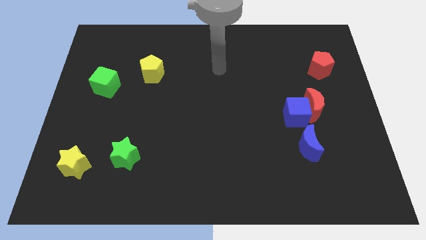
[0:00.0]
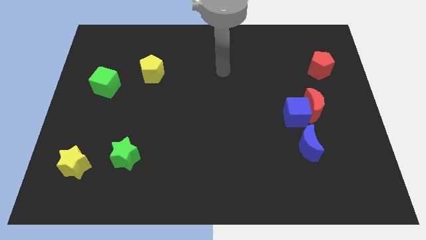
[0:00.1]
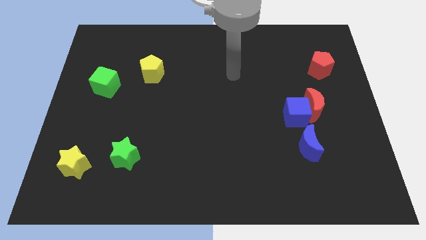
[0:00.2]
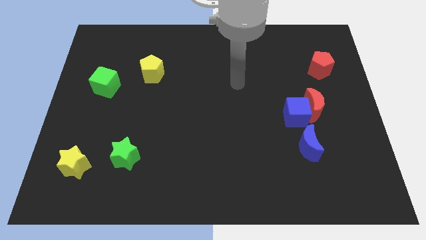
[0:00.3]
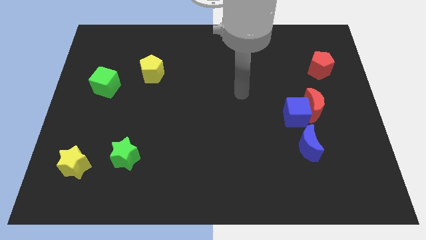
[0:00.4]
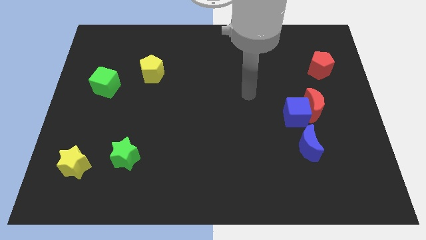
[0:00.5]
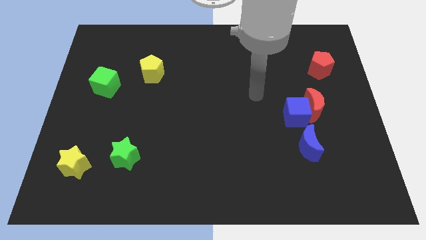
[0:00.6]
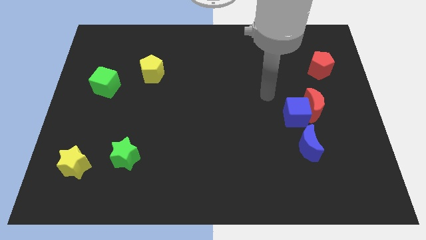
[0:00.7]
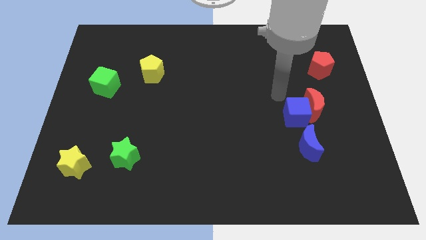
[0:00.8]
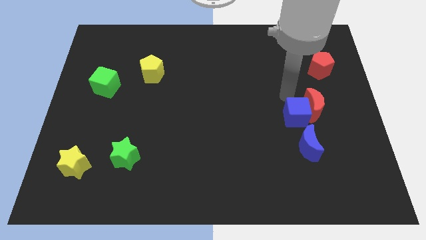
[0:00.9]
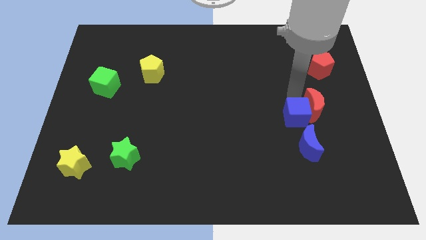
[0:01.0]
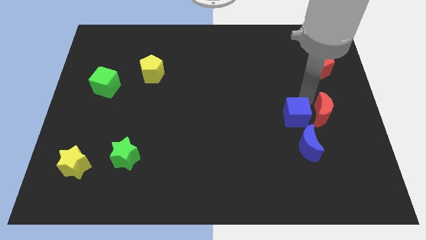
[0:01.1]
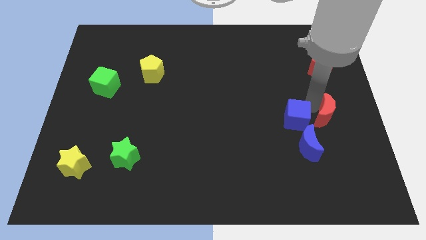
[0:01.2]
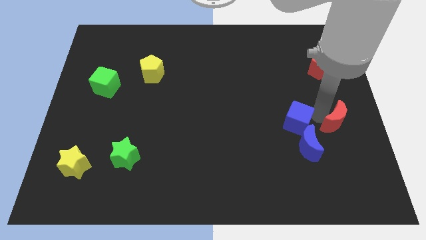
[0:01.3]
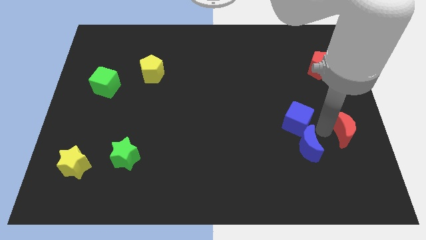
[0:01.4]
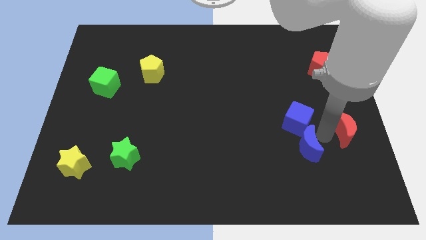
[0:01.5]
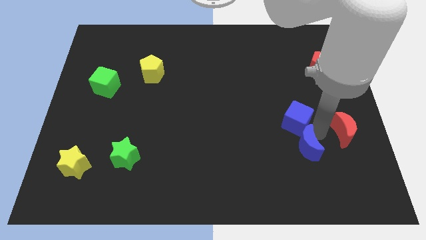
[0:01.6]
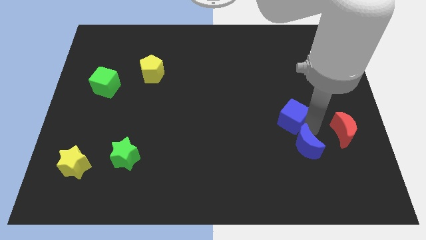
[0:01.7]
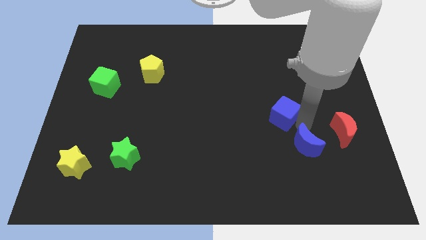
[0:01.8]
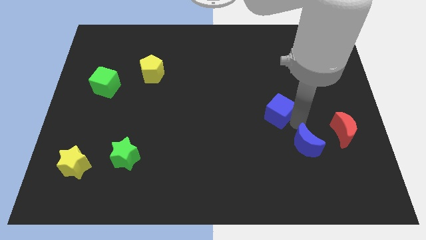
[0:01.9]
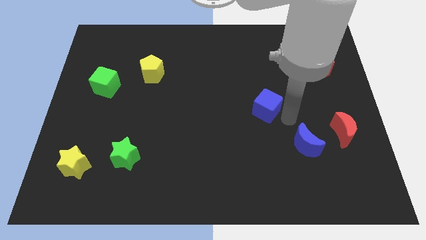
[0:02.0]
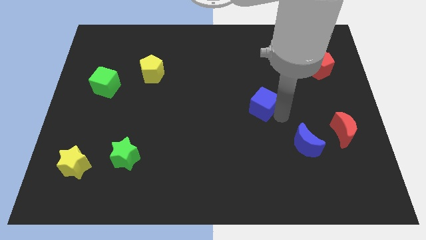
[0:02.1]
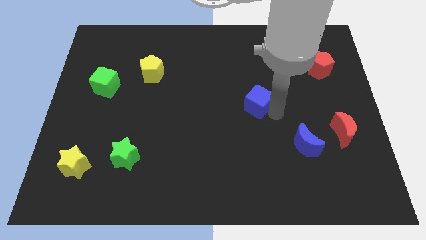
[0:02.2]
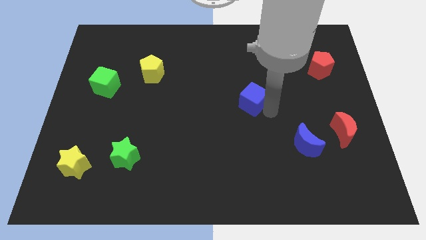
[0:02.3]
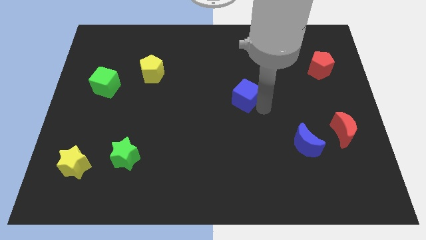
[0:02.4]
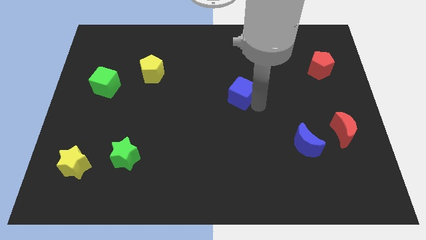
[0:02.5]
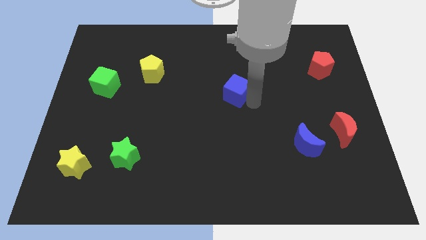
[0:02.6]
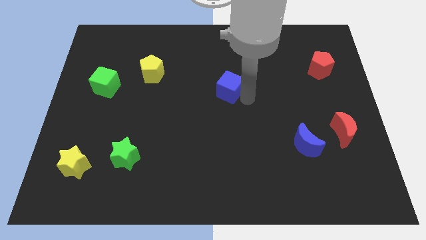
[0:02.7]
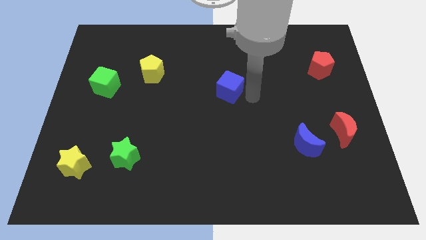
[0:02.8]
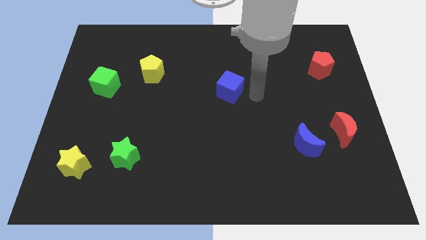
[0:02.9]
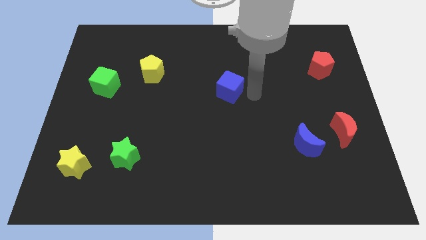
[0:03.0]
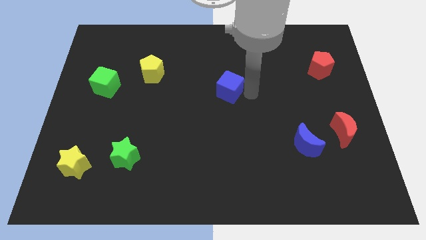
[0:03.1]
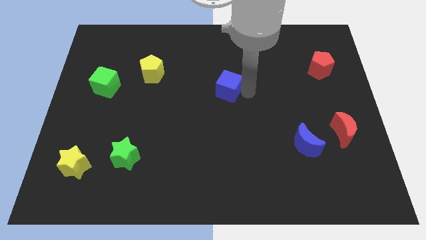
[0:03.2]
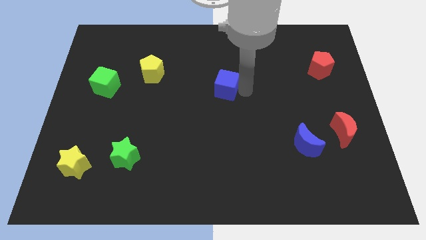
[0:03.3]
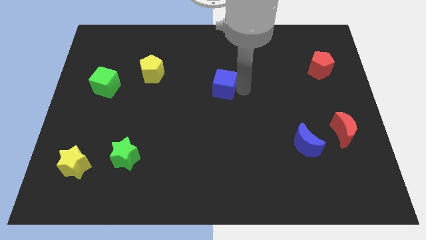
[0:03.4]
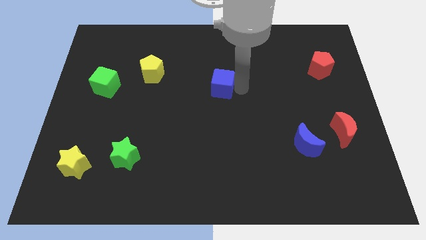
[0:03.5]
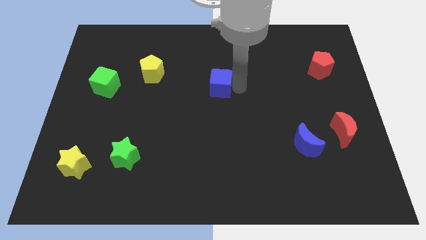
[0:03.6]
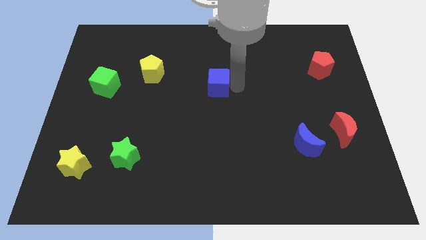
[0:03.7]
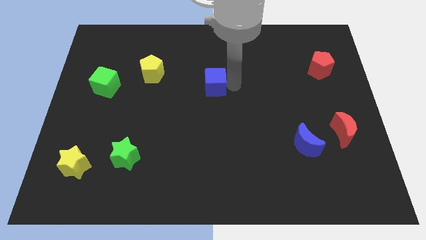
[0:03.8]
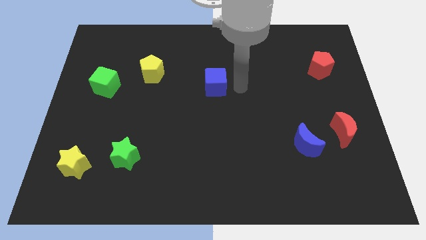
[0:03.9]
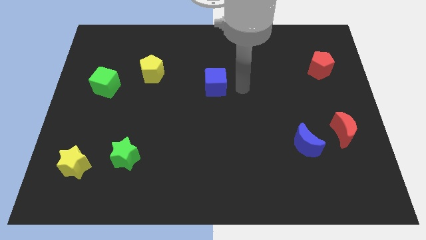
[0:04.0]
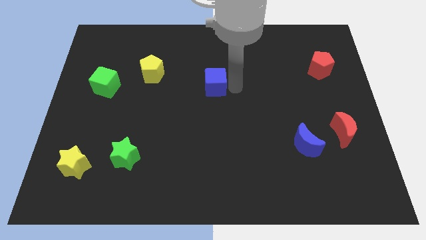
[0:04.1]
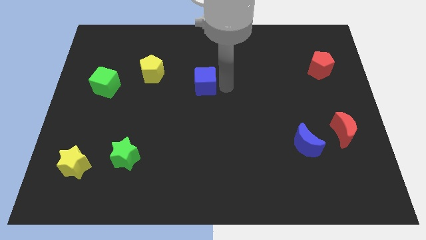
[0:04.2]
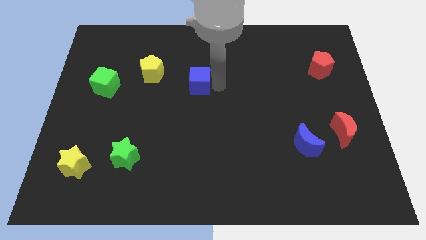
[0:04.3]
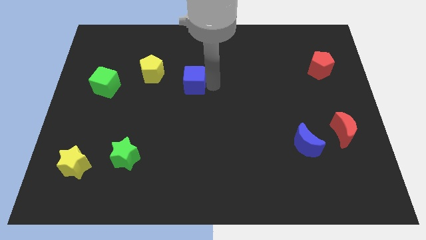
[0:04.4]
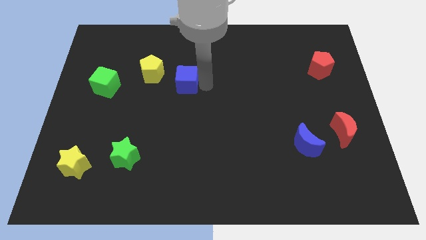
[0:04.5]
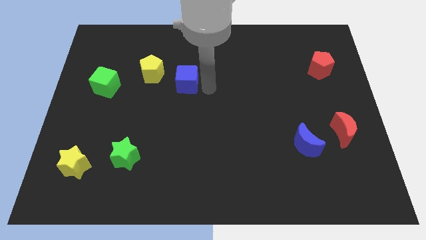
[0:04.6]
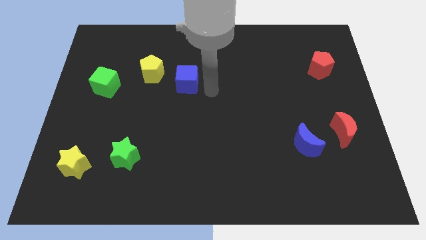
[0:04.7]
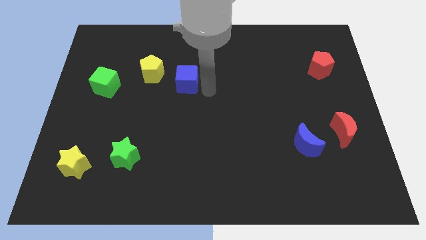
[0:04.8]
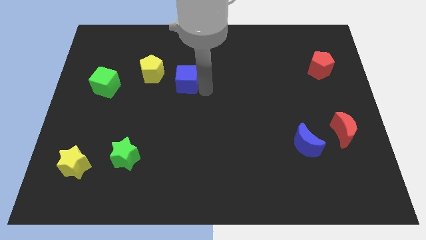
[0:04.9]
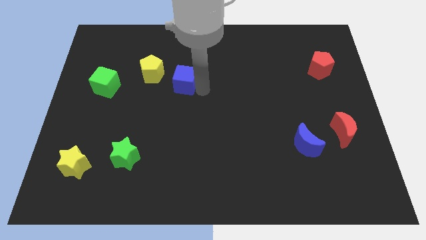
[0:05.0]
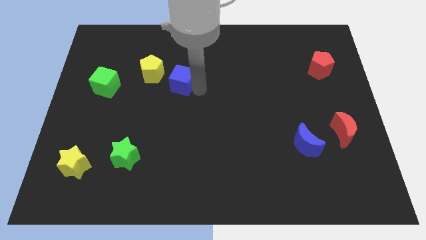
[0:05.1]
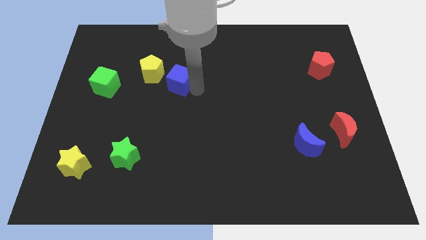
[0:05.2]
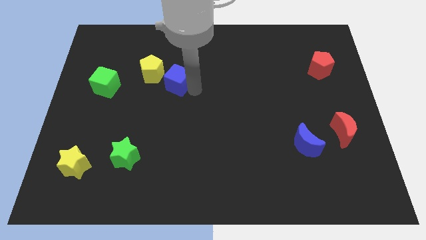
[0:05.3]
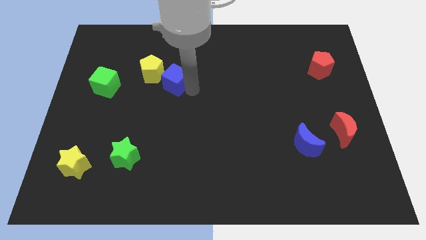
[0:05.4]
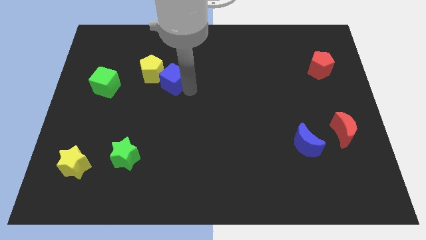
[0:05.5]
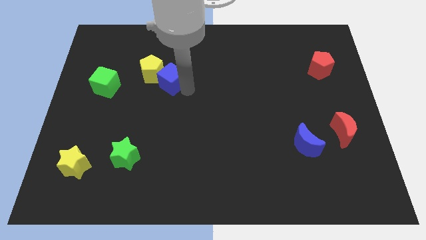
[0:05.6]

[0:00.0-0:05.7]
move the blue cube to the yellow pentagon
